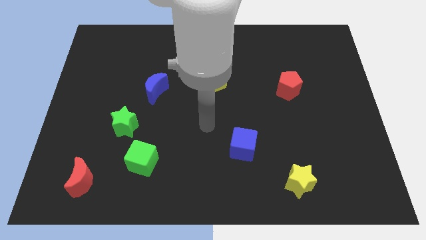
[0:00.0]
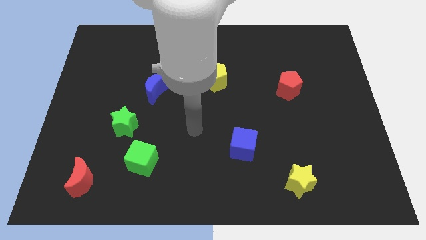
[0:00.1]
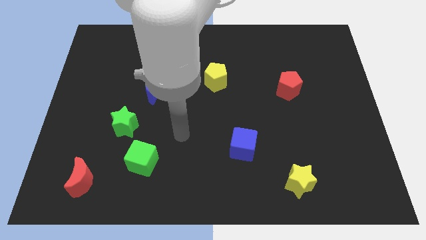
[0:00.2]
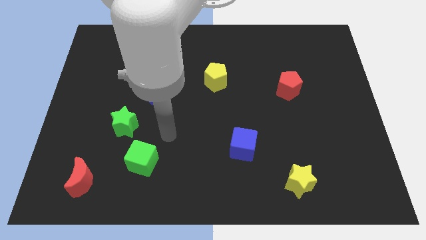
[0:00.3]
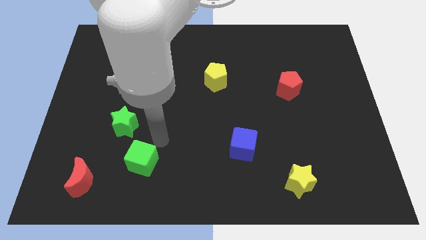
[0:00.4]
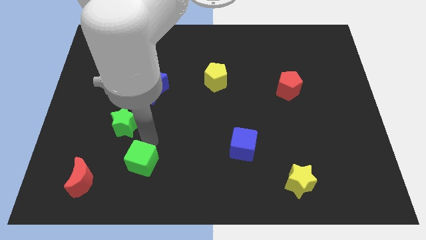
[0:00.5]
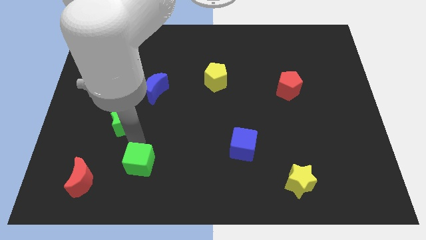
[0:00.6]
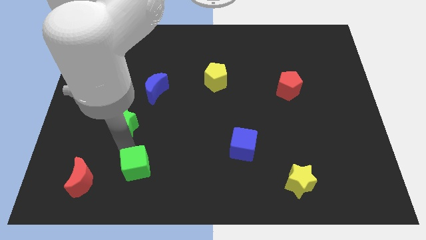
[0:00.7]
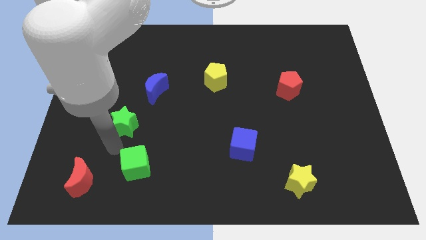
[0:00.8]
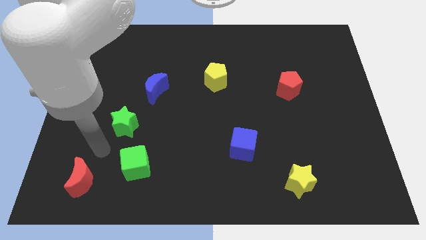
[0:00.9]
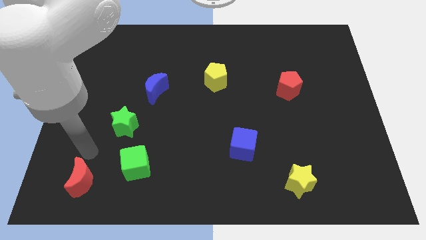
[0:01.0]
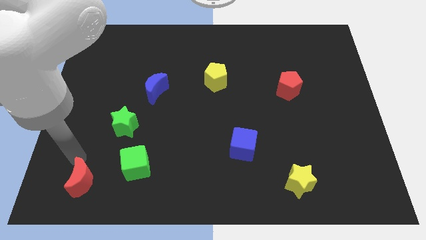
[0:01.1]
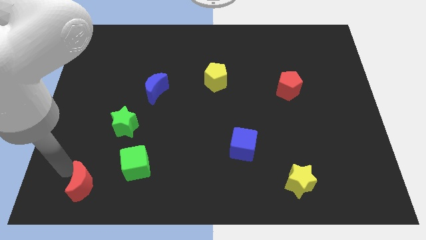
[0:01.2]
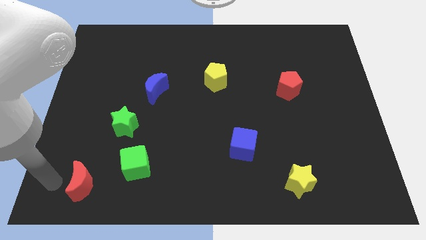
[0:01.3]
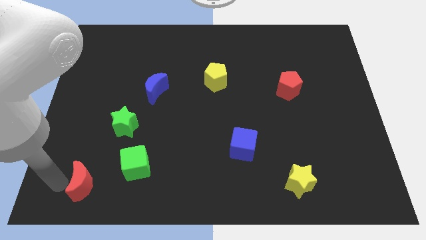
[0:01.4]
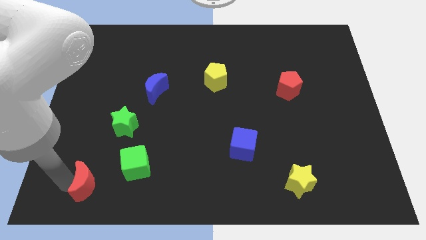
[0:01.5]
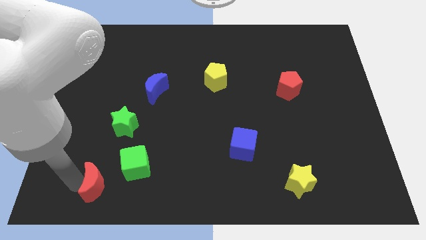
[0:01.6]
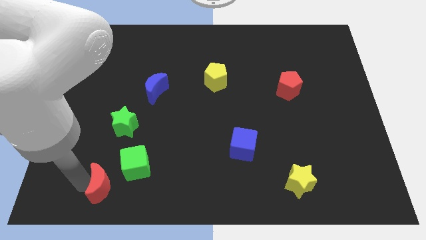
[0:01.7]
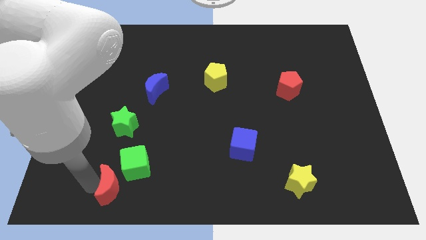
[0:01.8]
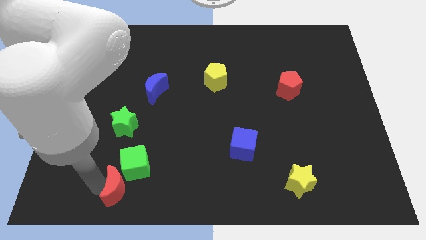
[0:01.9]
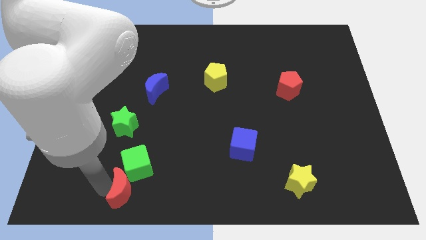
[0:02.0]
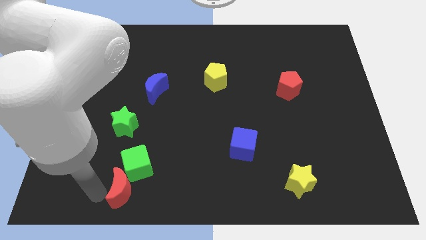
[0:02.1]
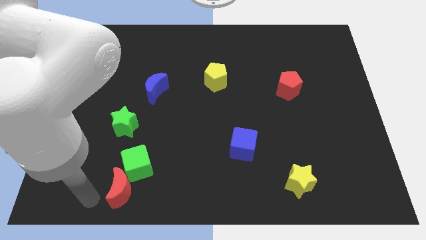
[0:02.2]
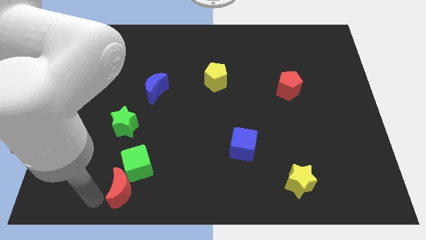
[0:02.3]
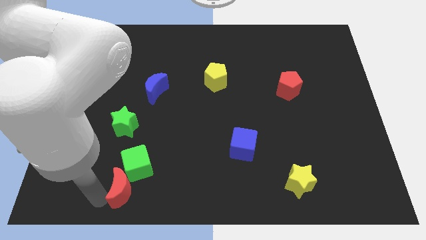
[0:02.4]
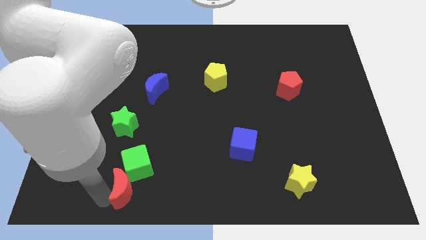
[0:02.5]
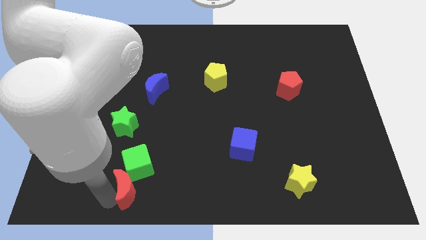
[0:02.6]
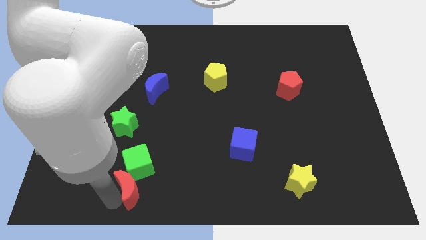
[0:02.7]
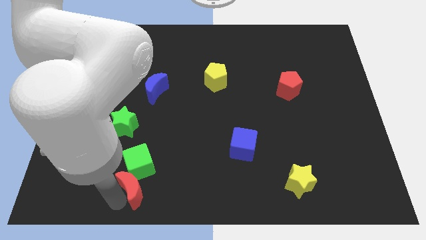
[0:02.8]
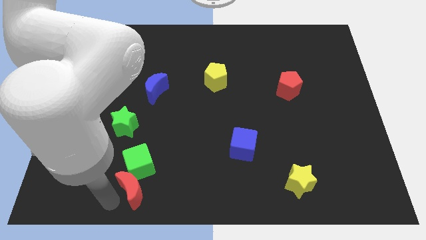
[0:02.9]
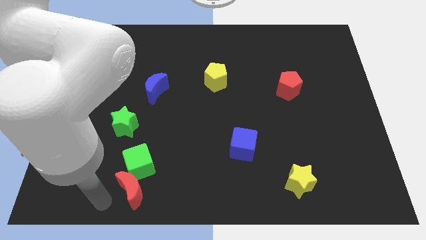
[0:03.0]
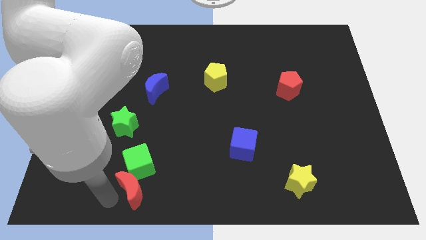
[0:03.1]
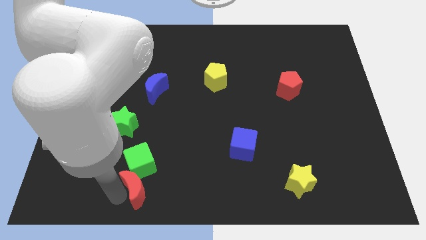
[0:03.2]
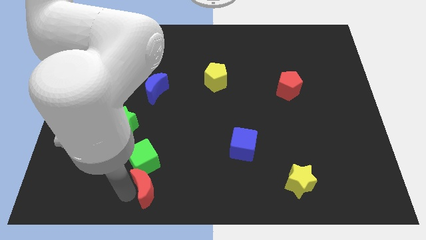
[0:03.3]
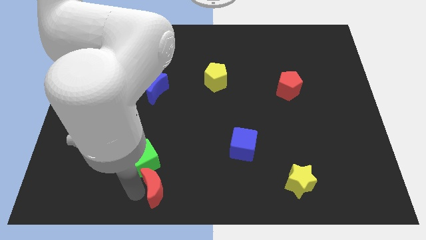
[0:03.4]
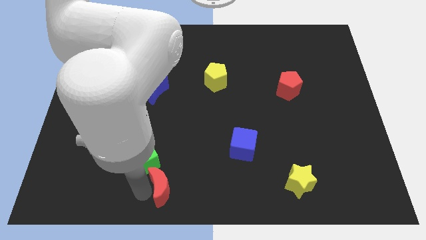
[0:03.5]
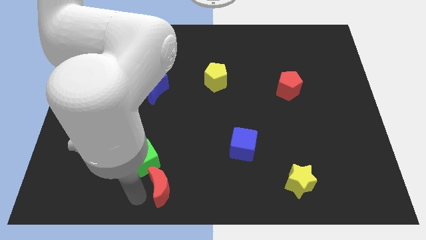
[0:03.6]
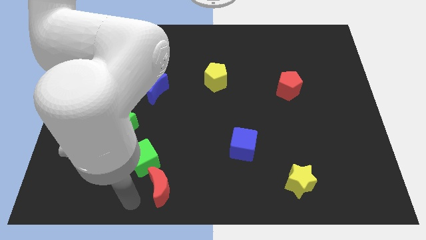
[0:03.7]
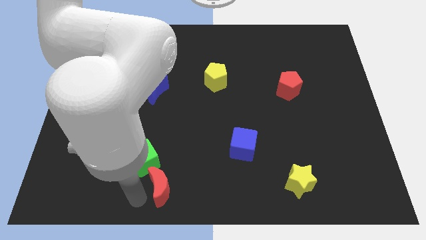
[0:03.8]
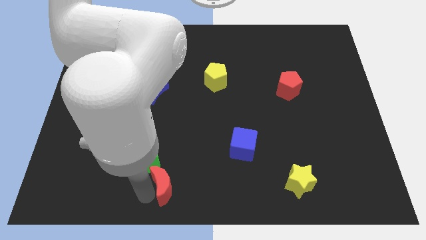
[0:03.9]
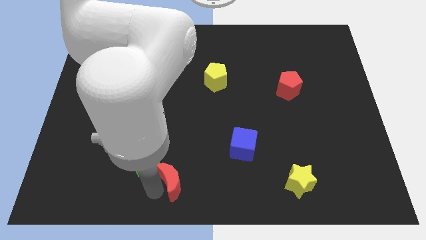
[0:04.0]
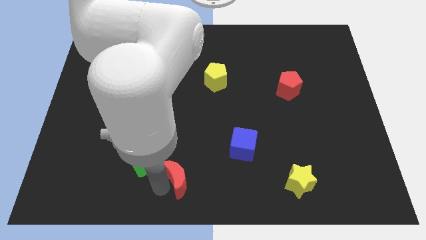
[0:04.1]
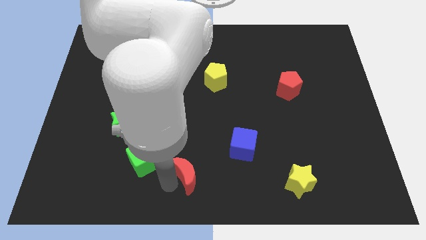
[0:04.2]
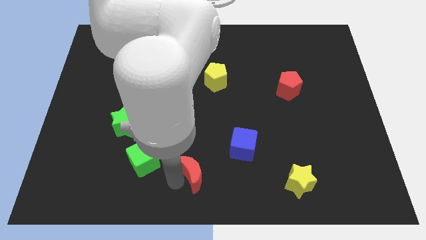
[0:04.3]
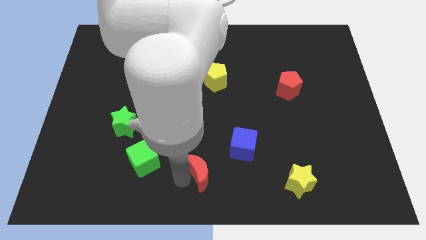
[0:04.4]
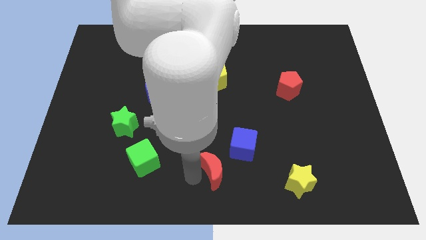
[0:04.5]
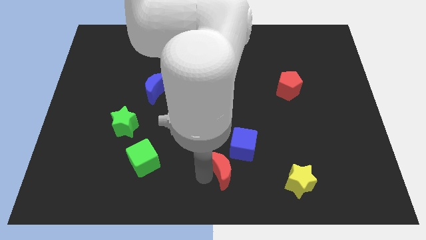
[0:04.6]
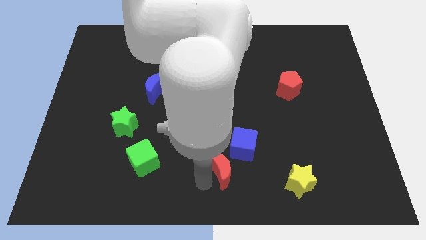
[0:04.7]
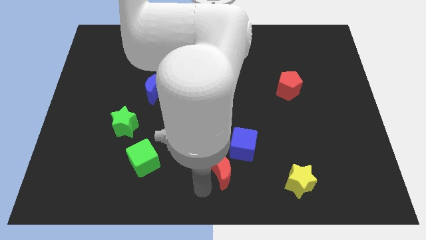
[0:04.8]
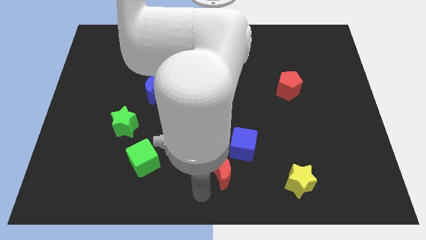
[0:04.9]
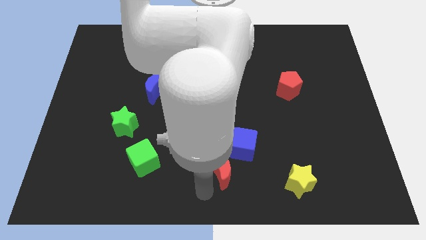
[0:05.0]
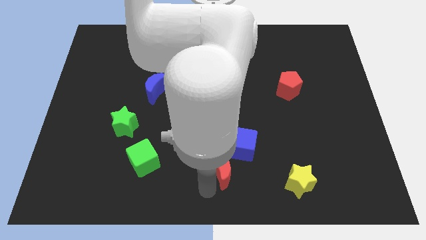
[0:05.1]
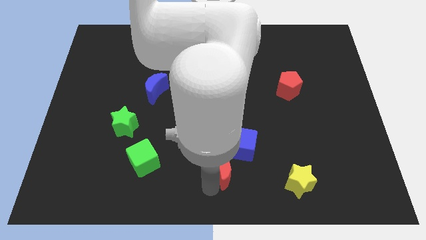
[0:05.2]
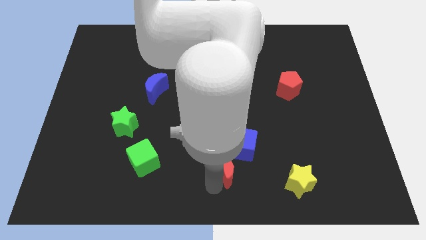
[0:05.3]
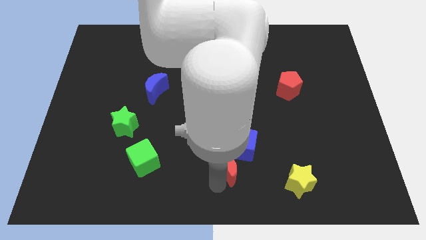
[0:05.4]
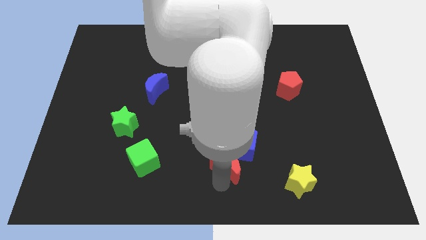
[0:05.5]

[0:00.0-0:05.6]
push the red moon next to the blue cube

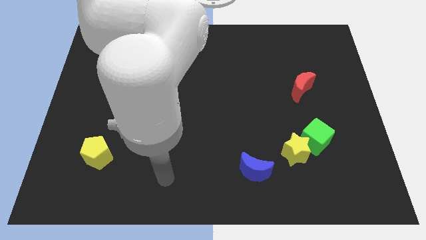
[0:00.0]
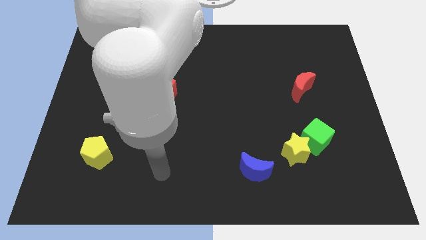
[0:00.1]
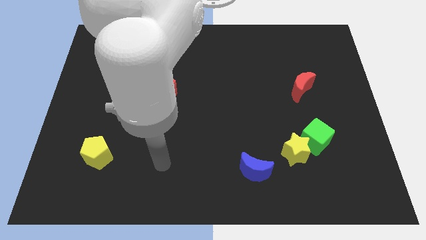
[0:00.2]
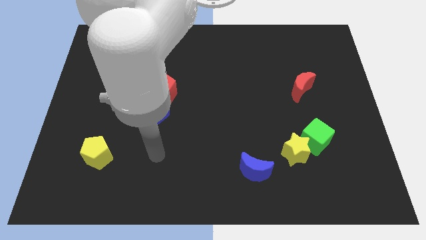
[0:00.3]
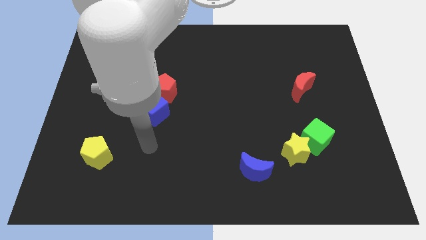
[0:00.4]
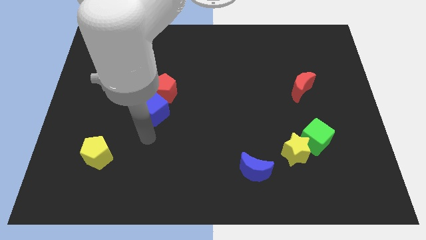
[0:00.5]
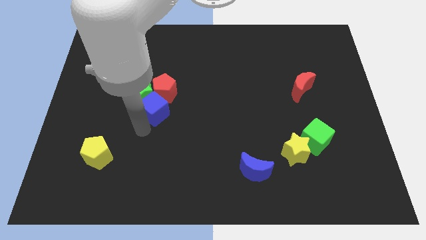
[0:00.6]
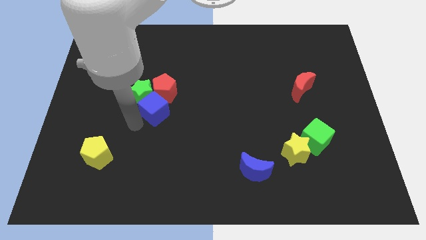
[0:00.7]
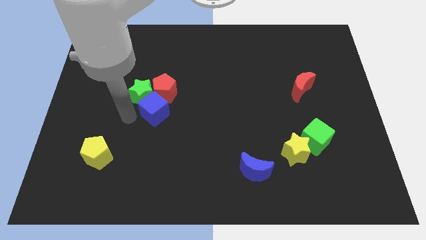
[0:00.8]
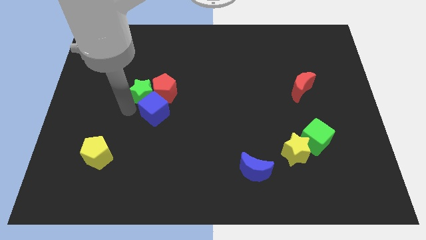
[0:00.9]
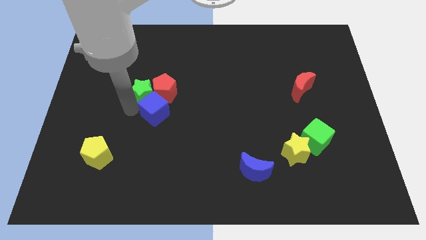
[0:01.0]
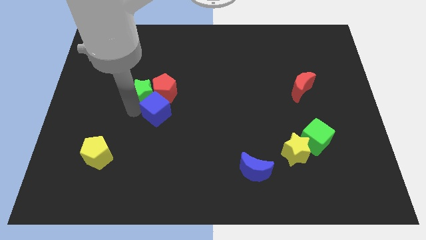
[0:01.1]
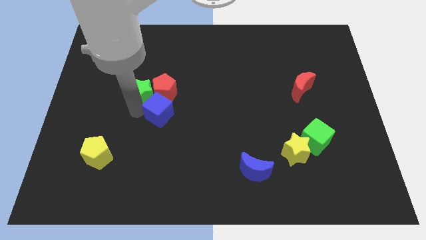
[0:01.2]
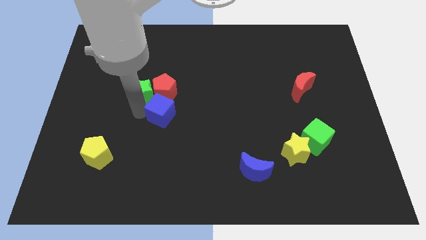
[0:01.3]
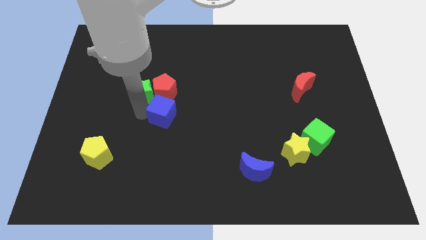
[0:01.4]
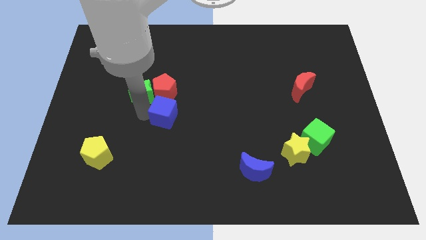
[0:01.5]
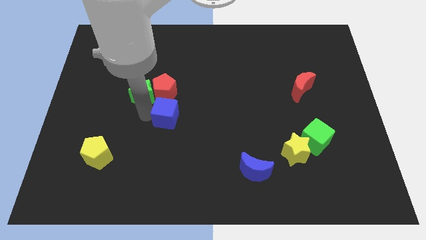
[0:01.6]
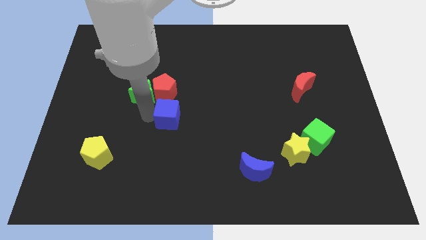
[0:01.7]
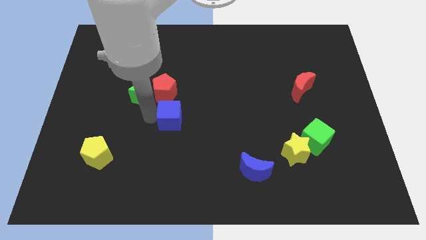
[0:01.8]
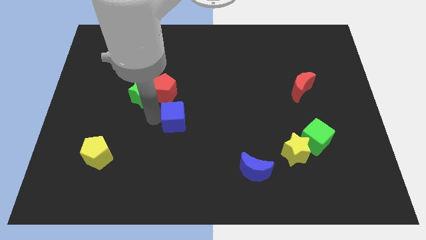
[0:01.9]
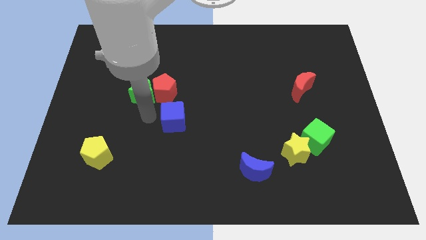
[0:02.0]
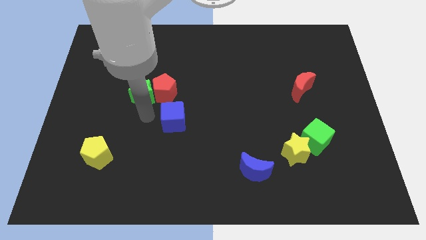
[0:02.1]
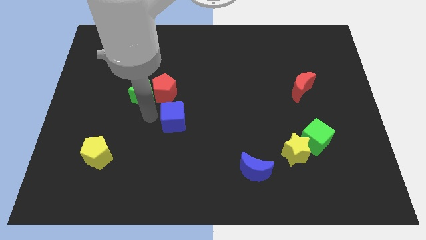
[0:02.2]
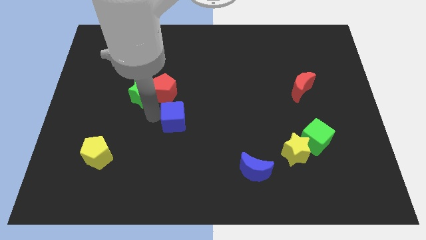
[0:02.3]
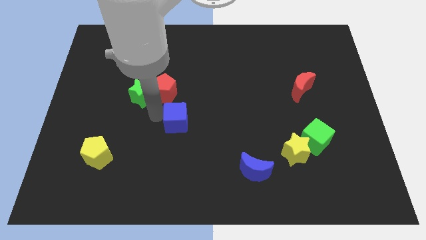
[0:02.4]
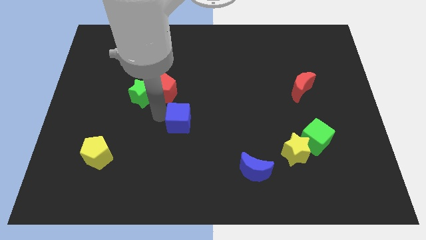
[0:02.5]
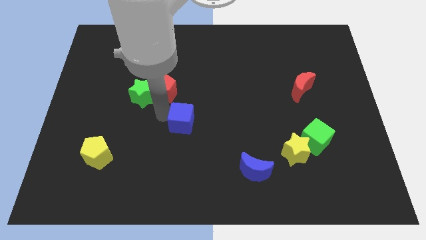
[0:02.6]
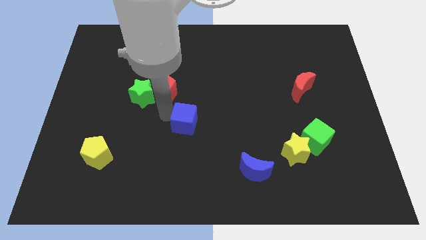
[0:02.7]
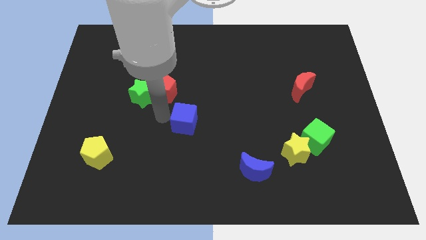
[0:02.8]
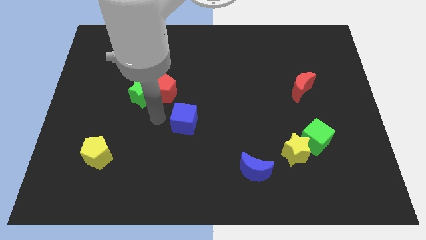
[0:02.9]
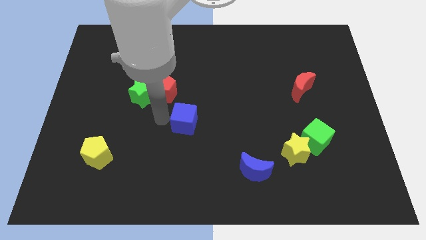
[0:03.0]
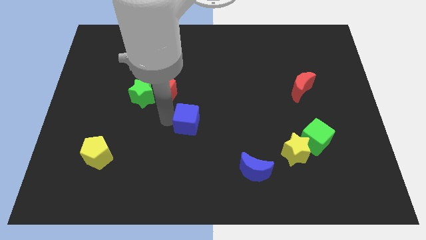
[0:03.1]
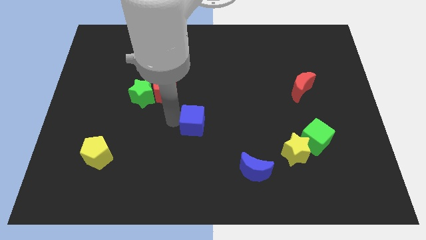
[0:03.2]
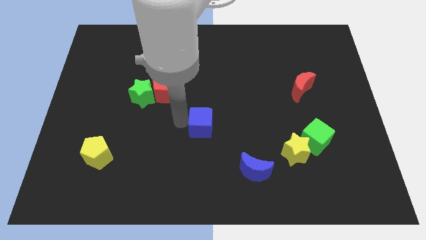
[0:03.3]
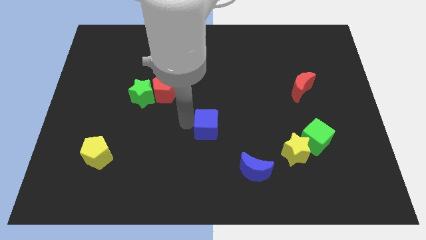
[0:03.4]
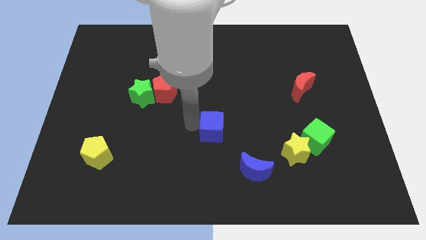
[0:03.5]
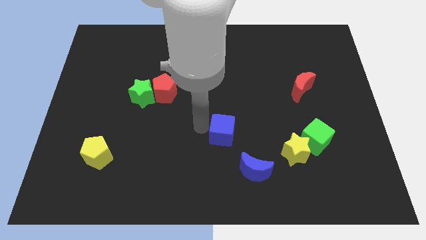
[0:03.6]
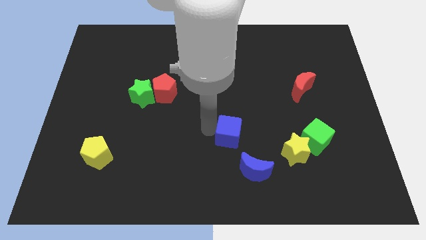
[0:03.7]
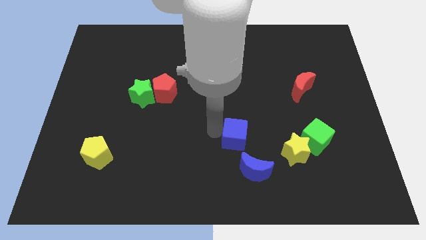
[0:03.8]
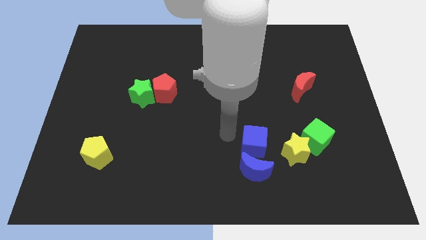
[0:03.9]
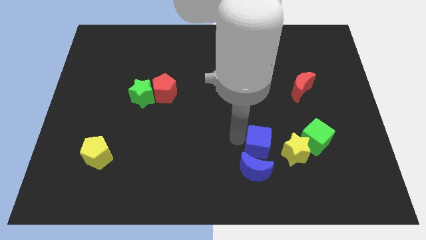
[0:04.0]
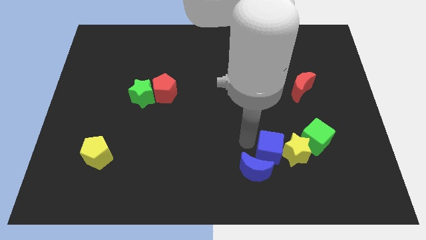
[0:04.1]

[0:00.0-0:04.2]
move the blue cube towards the yellow star
